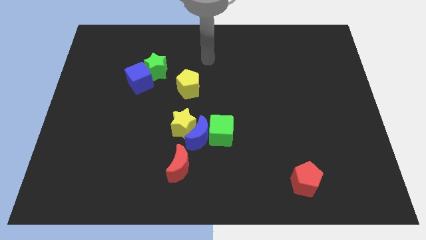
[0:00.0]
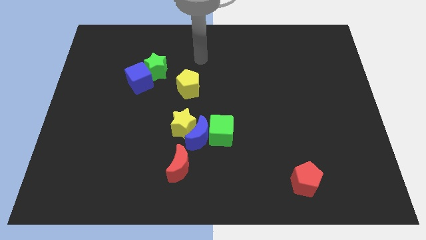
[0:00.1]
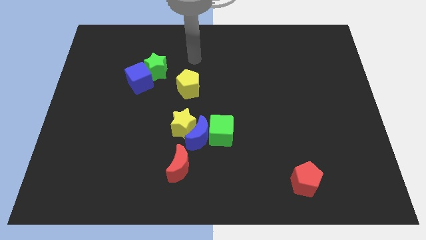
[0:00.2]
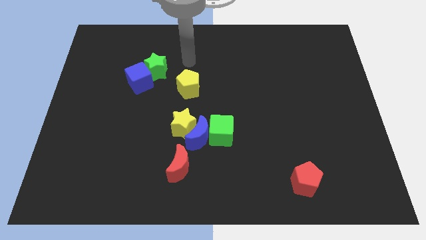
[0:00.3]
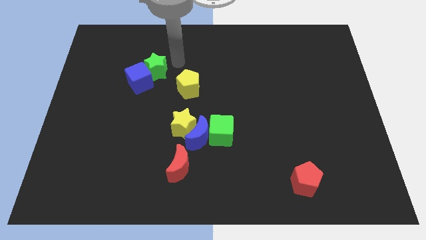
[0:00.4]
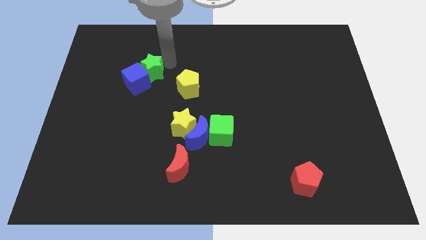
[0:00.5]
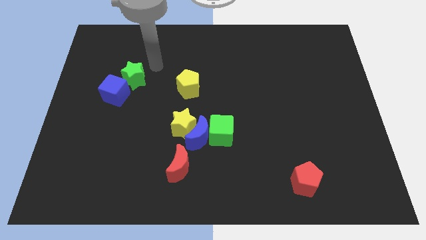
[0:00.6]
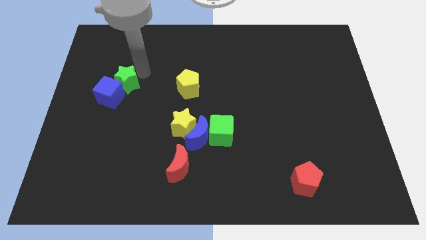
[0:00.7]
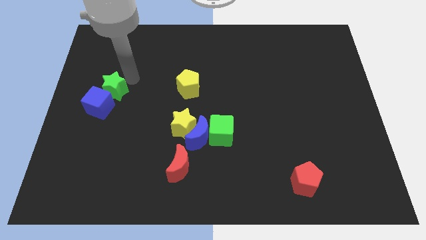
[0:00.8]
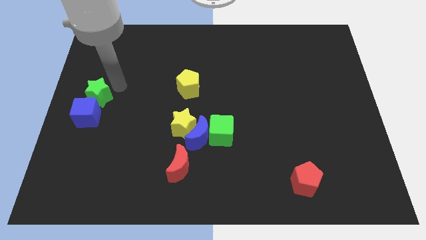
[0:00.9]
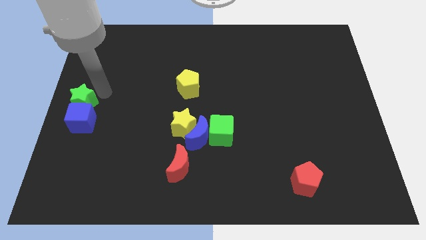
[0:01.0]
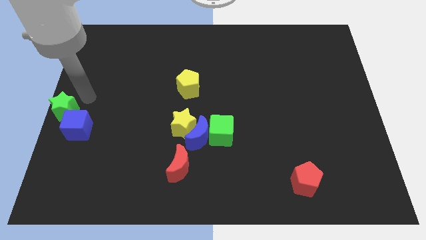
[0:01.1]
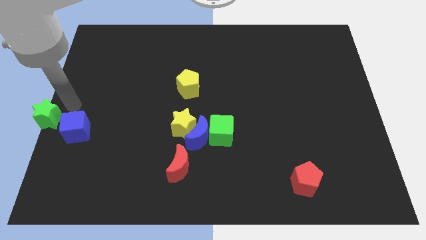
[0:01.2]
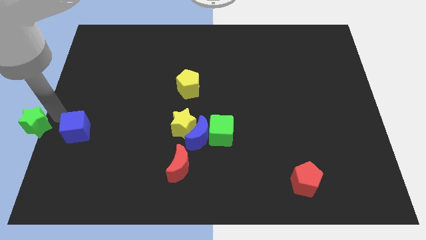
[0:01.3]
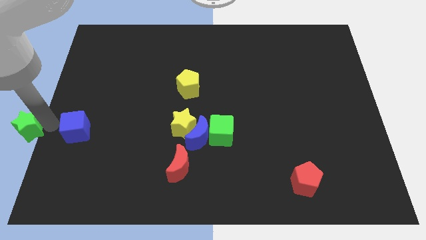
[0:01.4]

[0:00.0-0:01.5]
separate the blue cube from the green star

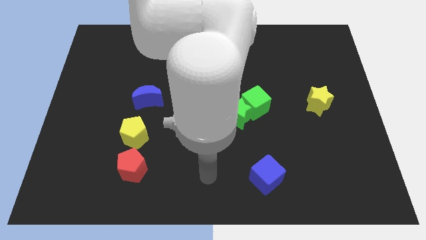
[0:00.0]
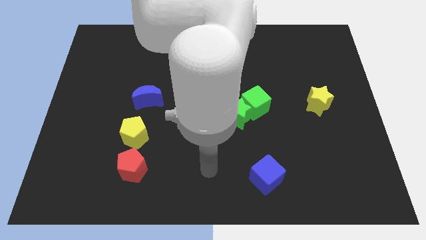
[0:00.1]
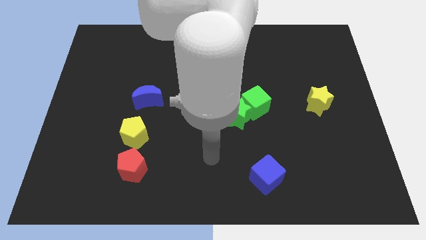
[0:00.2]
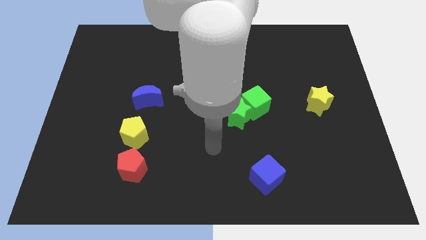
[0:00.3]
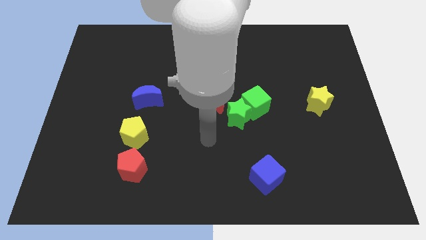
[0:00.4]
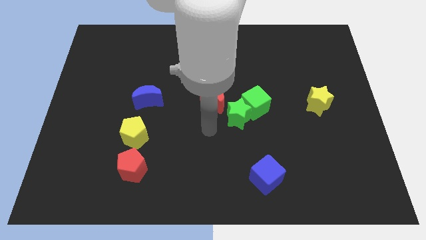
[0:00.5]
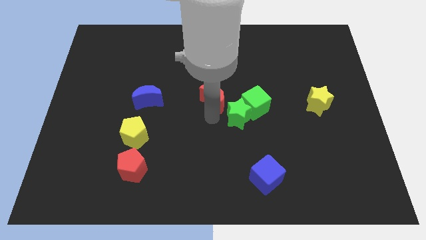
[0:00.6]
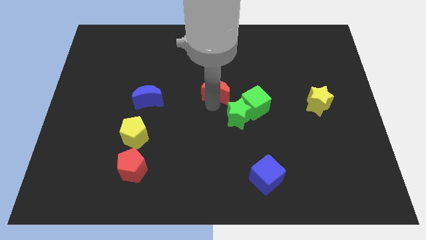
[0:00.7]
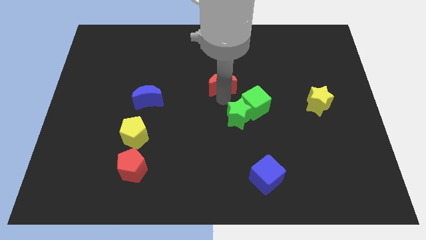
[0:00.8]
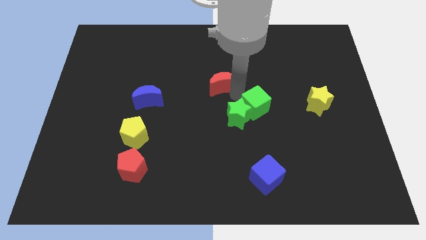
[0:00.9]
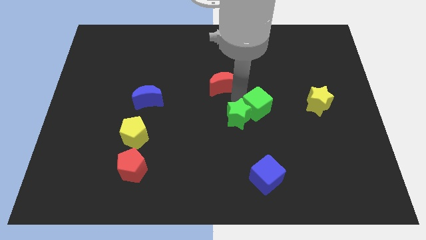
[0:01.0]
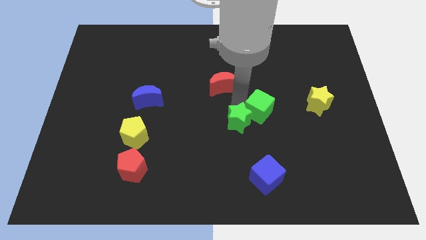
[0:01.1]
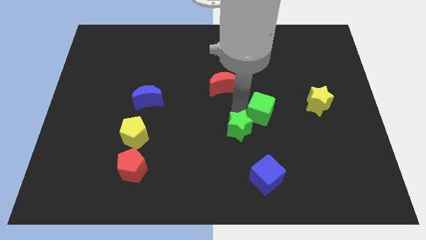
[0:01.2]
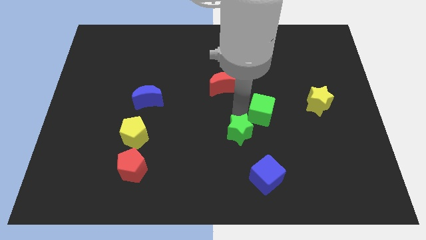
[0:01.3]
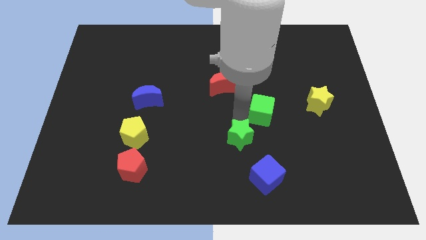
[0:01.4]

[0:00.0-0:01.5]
pull the green star apart from the green cube and red moon

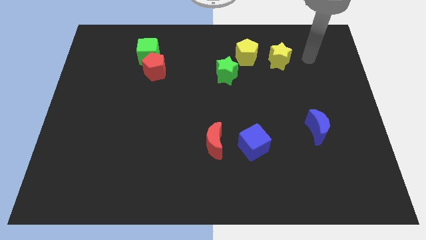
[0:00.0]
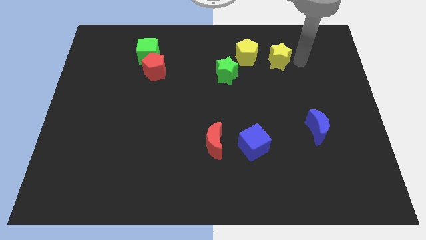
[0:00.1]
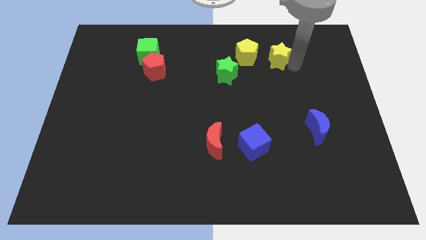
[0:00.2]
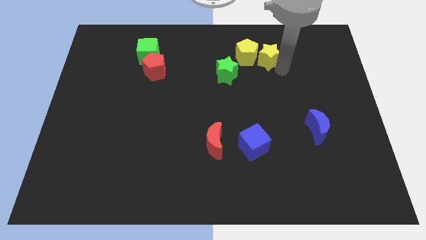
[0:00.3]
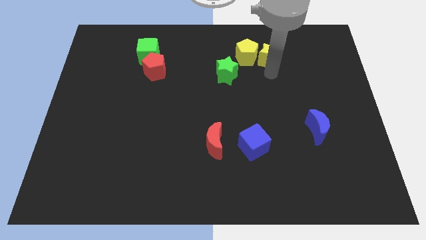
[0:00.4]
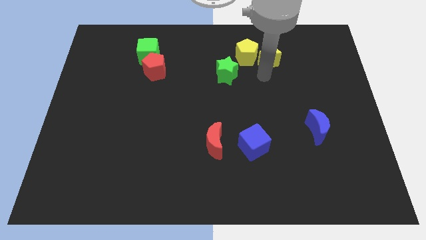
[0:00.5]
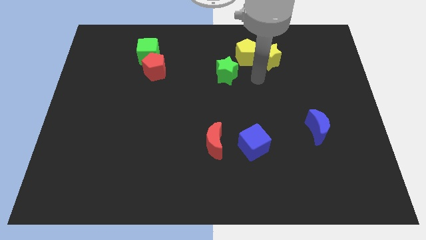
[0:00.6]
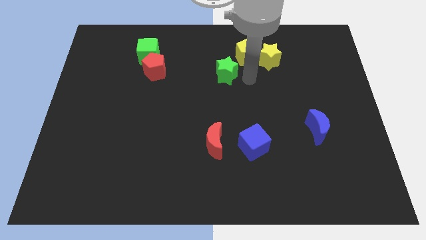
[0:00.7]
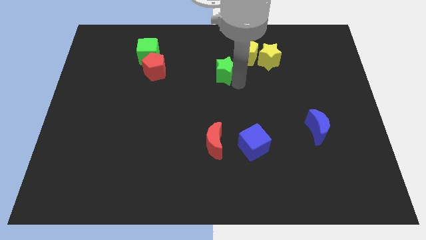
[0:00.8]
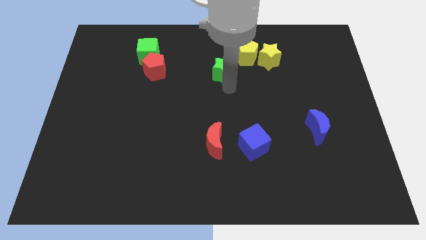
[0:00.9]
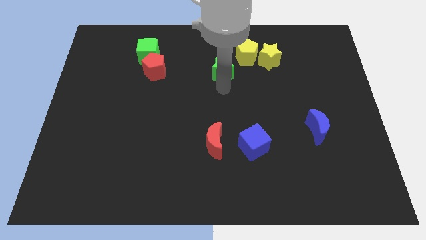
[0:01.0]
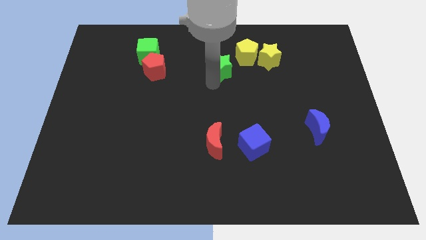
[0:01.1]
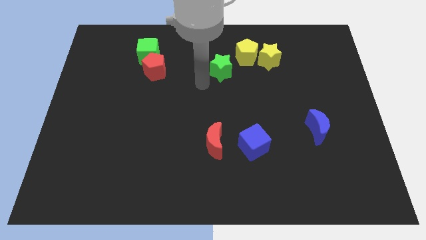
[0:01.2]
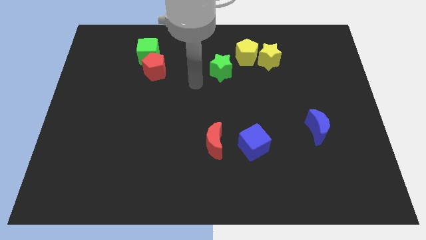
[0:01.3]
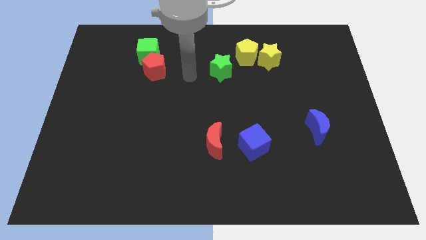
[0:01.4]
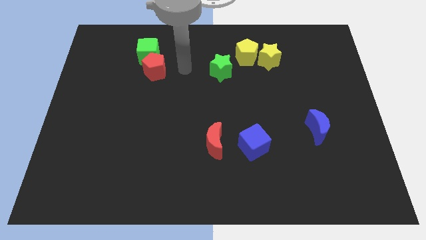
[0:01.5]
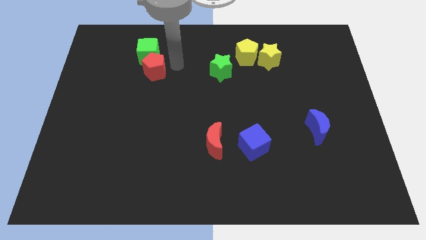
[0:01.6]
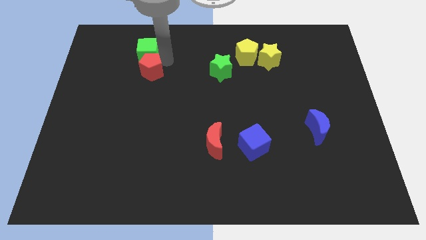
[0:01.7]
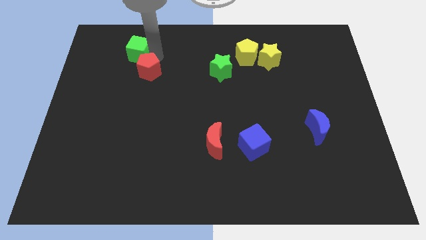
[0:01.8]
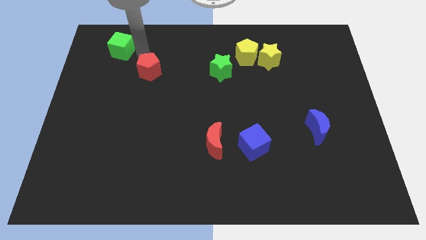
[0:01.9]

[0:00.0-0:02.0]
separate the red pentagon from the green cube

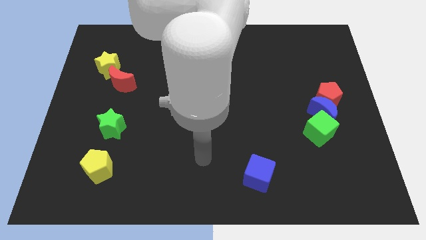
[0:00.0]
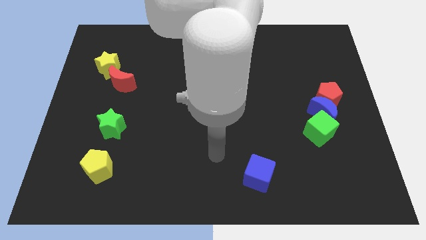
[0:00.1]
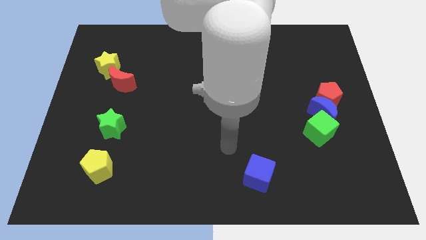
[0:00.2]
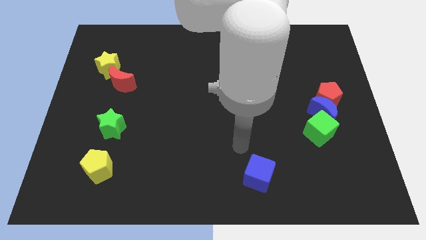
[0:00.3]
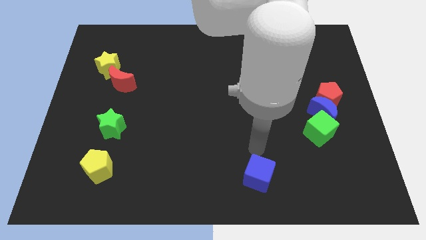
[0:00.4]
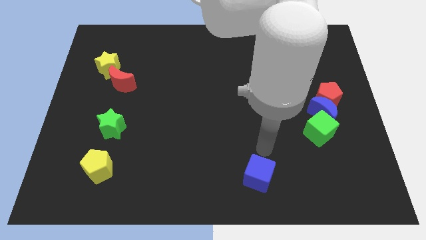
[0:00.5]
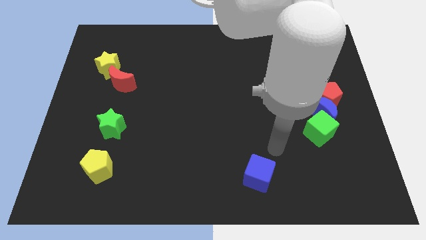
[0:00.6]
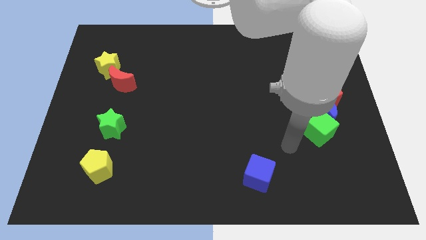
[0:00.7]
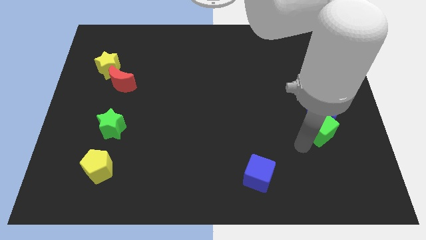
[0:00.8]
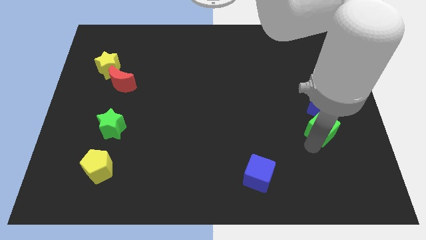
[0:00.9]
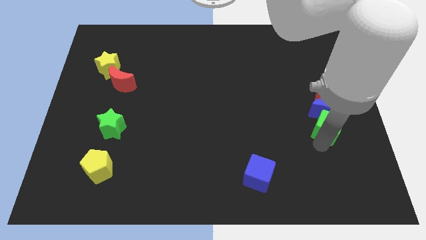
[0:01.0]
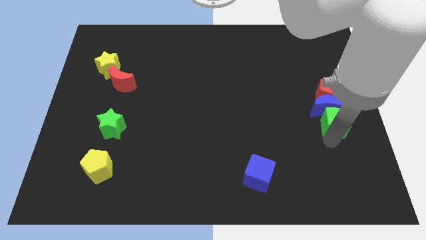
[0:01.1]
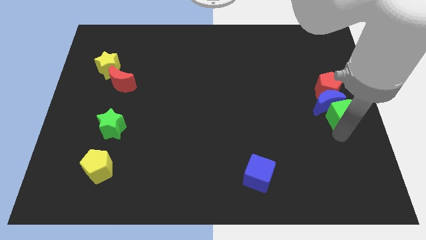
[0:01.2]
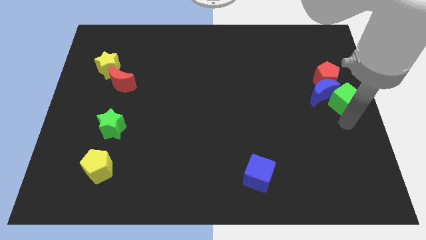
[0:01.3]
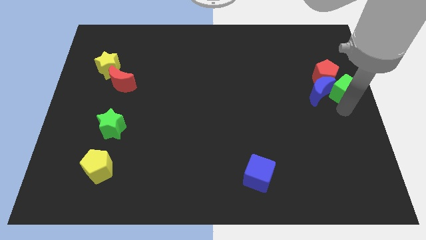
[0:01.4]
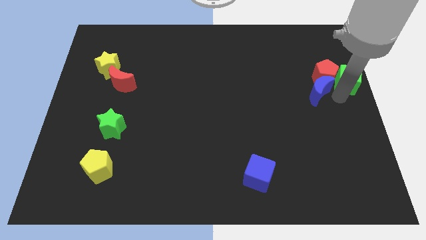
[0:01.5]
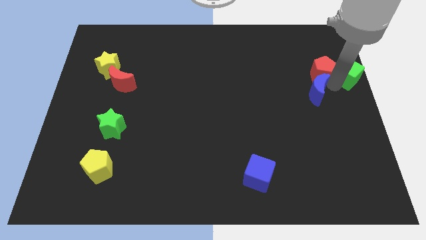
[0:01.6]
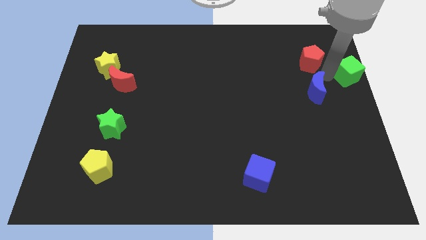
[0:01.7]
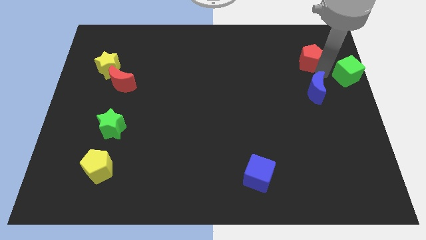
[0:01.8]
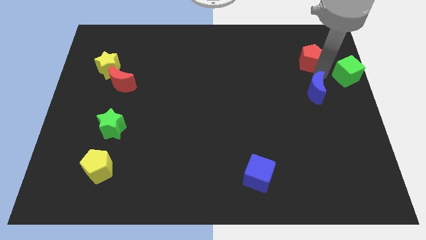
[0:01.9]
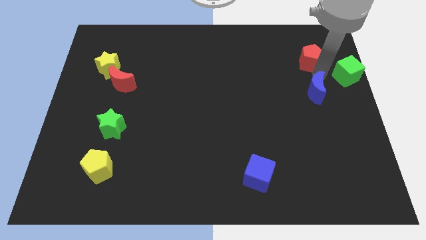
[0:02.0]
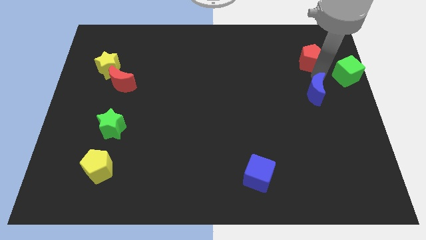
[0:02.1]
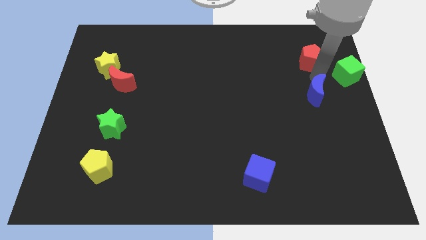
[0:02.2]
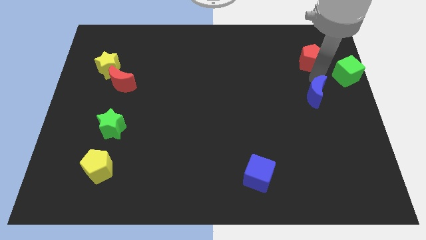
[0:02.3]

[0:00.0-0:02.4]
pull the blue moon apart from the red pentagon and green cube

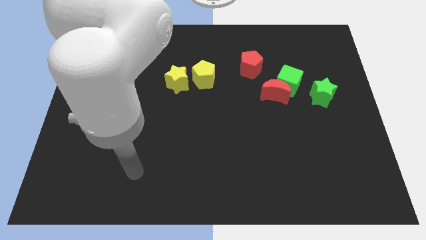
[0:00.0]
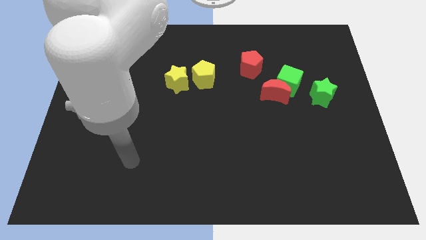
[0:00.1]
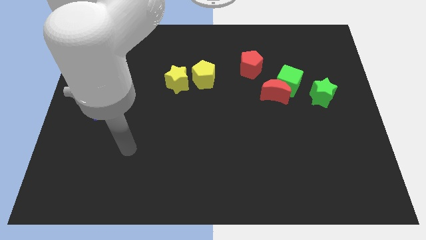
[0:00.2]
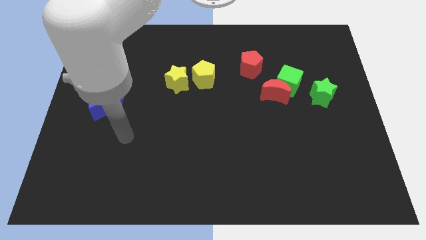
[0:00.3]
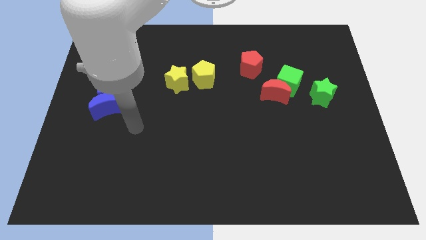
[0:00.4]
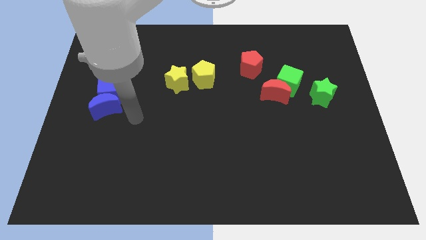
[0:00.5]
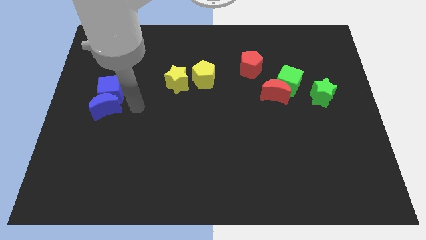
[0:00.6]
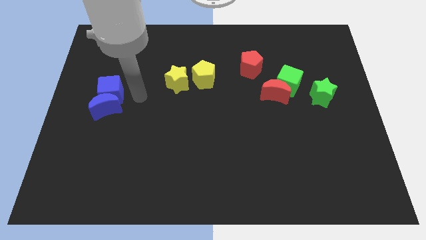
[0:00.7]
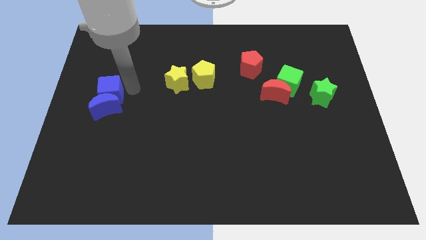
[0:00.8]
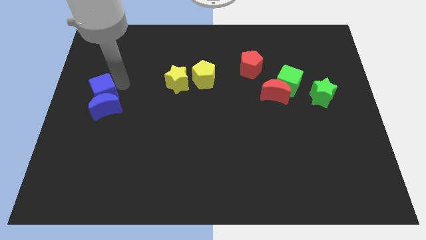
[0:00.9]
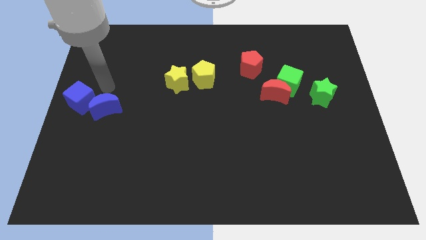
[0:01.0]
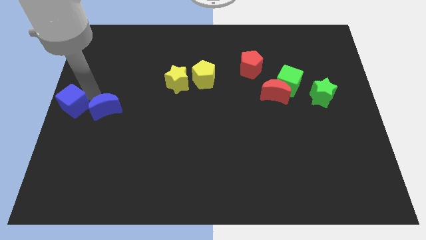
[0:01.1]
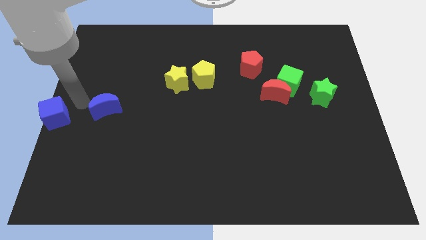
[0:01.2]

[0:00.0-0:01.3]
separate the blue moon from the blue cube

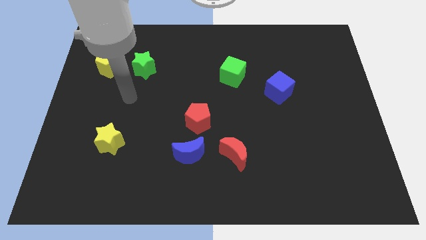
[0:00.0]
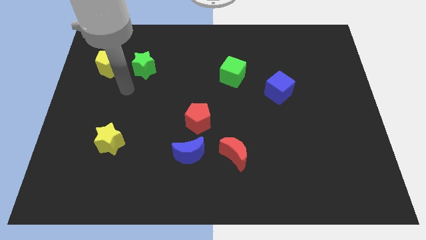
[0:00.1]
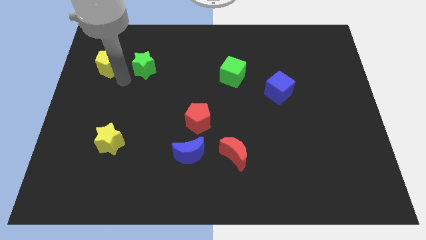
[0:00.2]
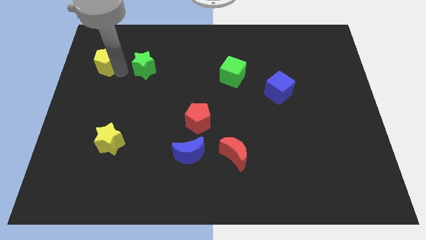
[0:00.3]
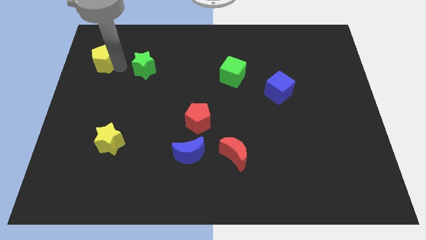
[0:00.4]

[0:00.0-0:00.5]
separate the green star from the yellow pentagon
